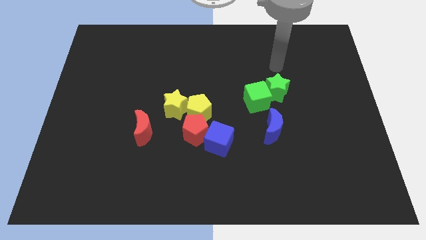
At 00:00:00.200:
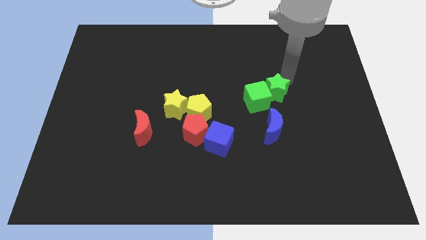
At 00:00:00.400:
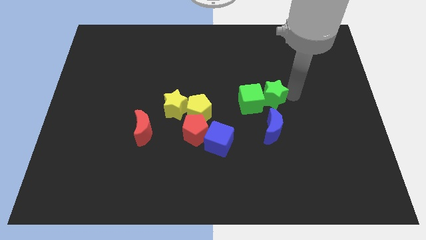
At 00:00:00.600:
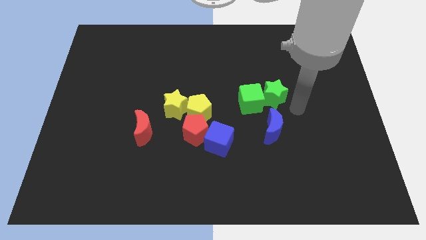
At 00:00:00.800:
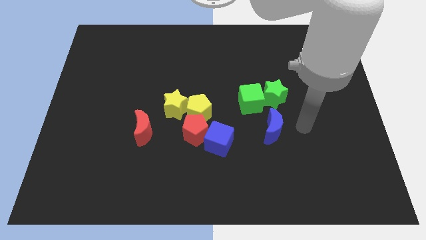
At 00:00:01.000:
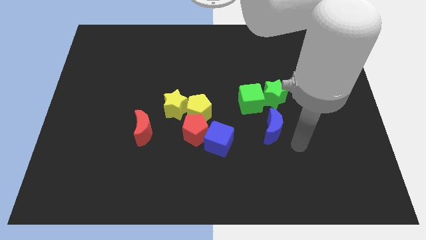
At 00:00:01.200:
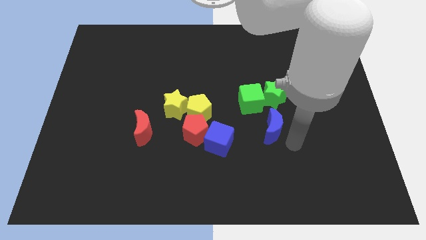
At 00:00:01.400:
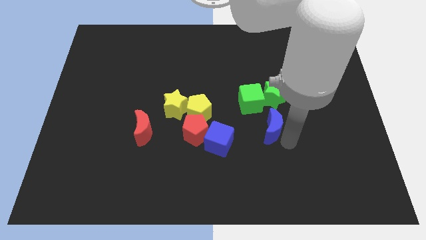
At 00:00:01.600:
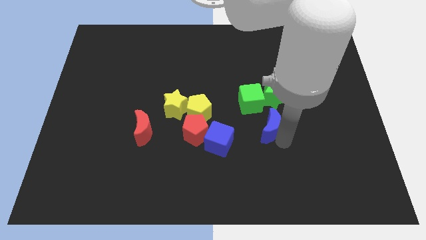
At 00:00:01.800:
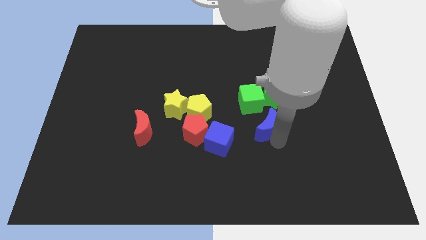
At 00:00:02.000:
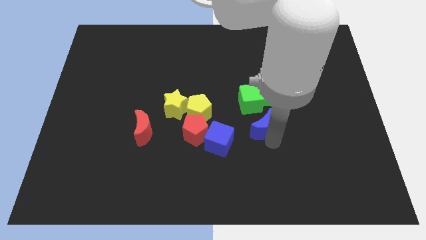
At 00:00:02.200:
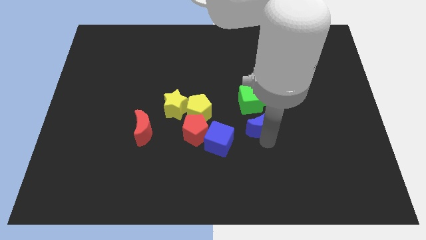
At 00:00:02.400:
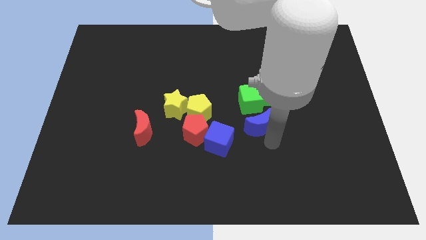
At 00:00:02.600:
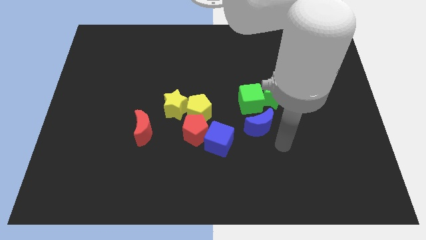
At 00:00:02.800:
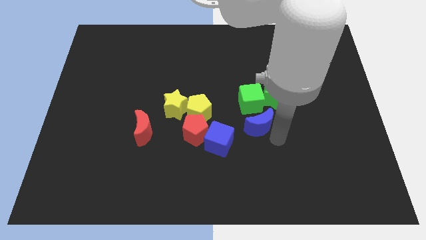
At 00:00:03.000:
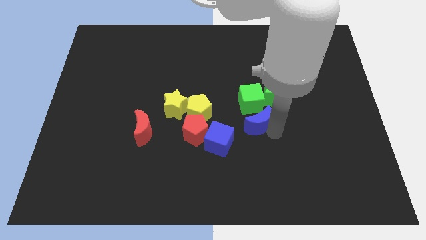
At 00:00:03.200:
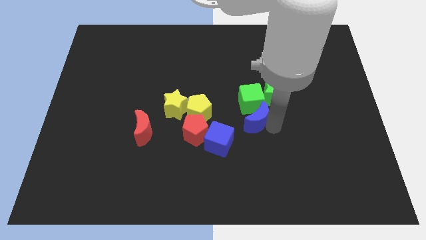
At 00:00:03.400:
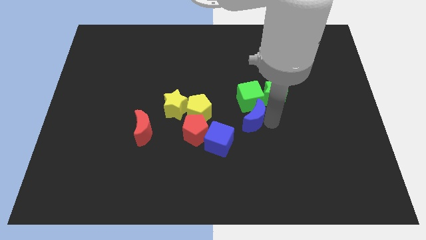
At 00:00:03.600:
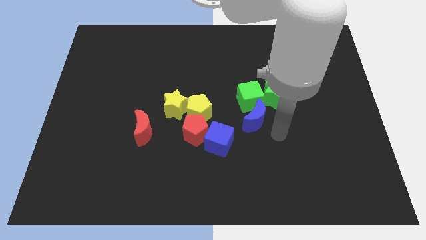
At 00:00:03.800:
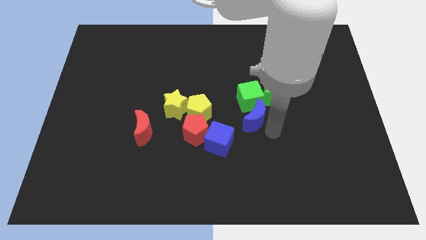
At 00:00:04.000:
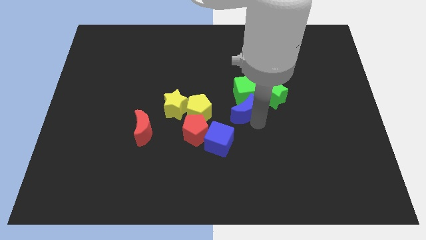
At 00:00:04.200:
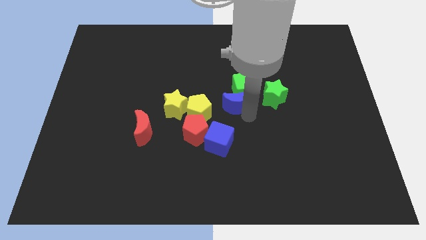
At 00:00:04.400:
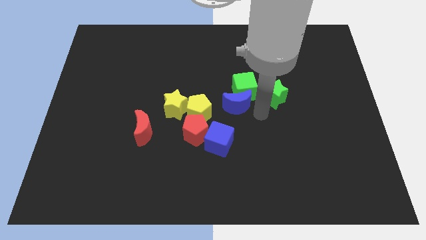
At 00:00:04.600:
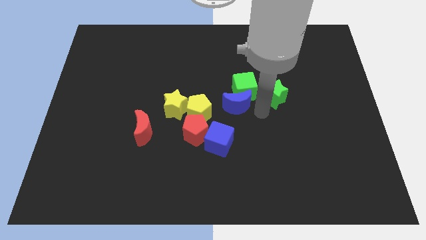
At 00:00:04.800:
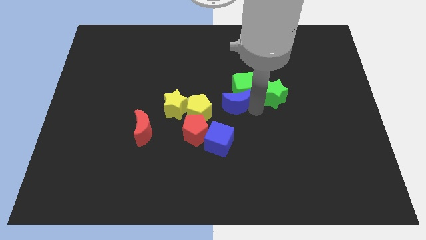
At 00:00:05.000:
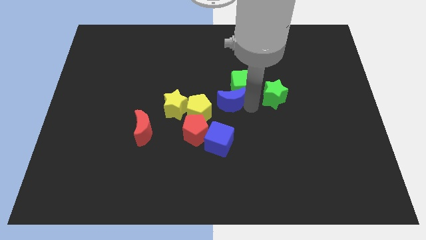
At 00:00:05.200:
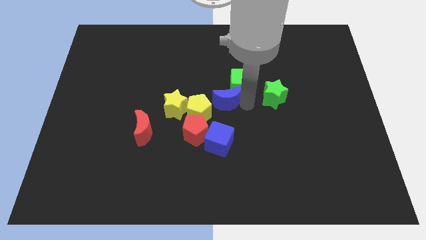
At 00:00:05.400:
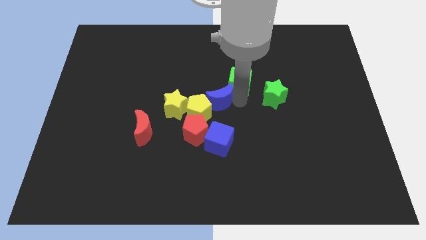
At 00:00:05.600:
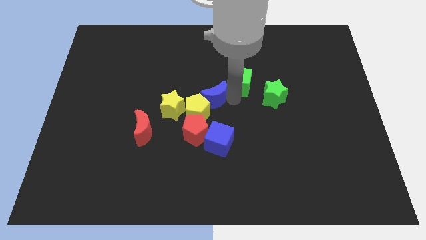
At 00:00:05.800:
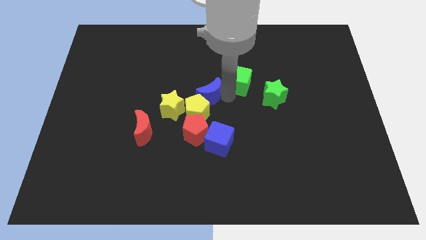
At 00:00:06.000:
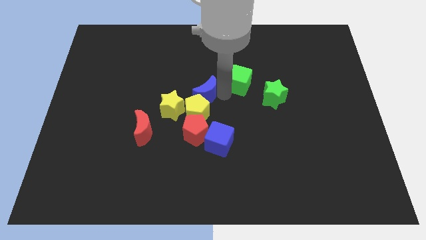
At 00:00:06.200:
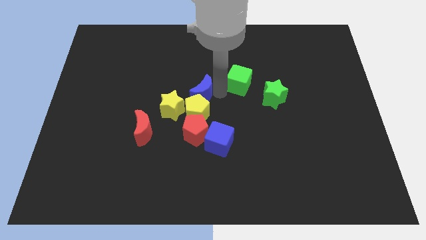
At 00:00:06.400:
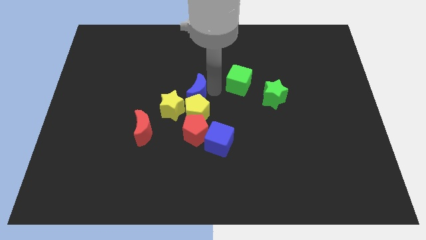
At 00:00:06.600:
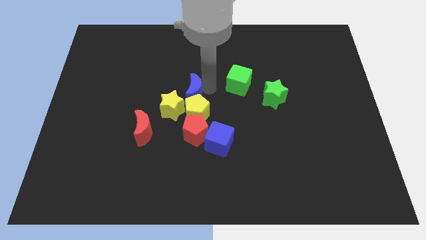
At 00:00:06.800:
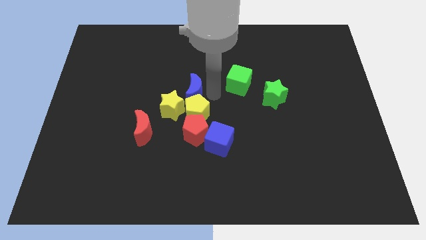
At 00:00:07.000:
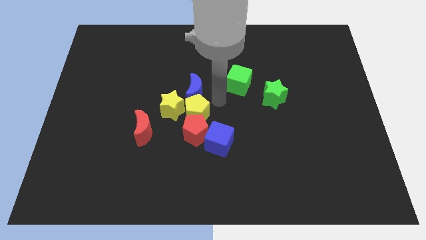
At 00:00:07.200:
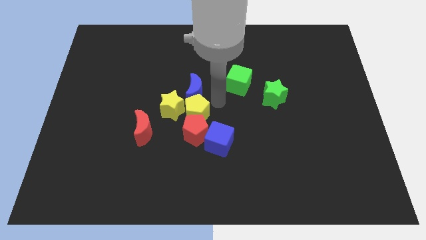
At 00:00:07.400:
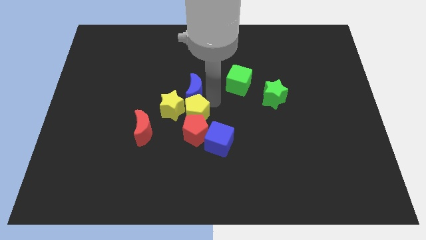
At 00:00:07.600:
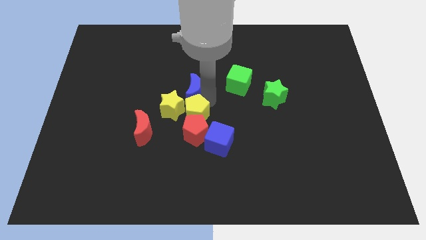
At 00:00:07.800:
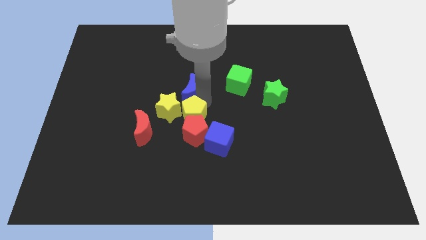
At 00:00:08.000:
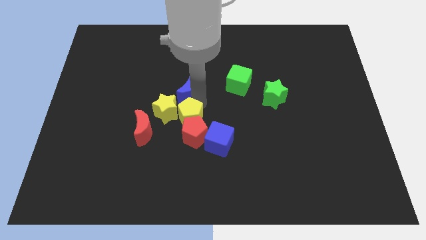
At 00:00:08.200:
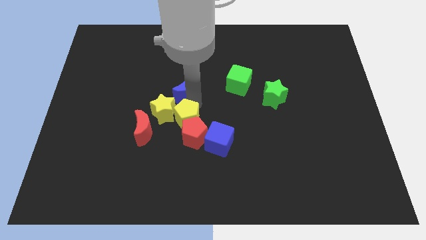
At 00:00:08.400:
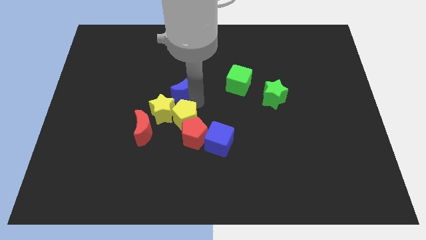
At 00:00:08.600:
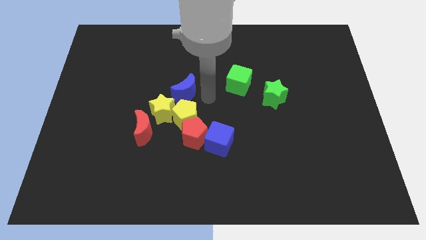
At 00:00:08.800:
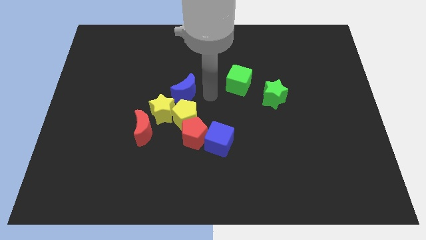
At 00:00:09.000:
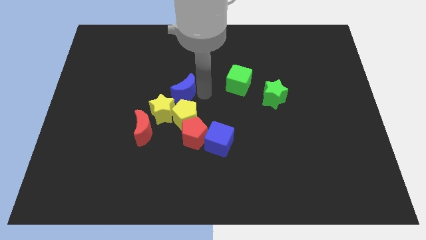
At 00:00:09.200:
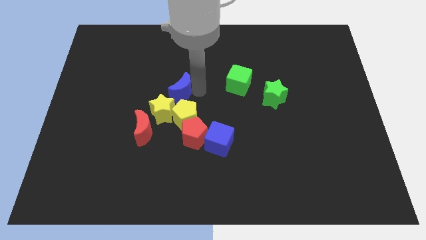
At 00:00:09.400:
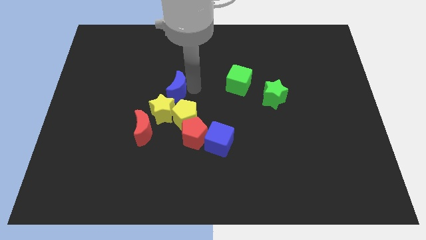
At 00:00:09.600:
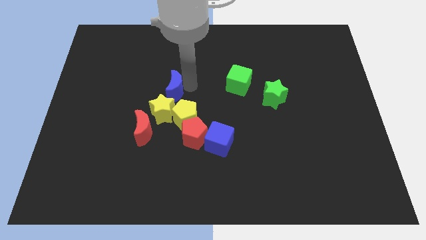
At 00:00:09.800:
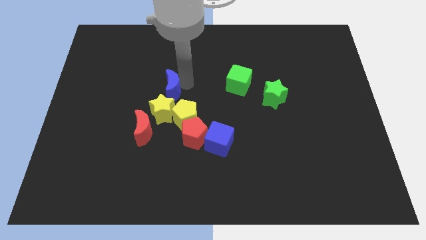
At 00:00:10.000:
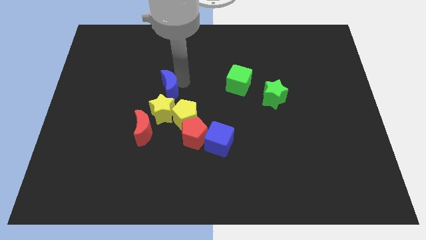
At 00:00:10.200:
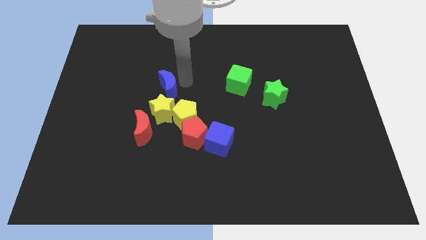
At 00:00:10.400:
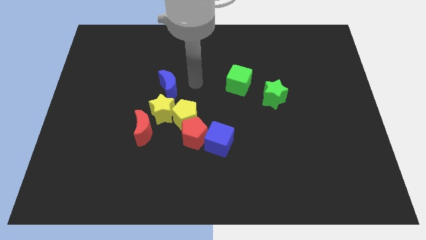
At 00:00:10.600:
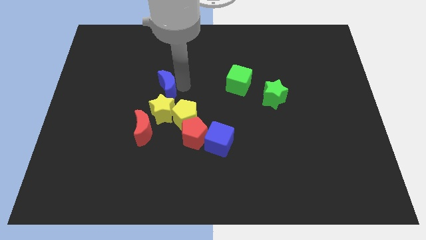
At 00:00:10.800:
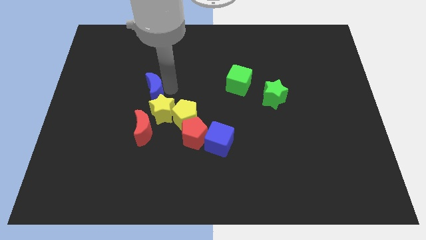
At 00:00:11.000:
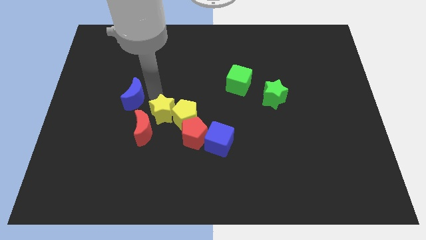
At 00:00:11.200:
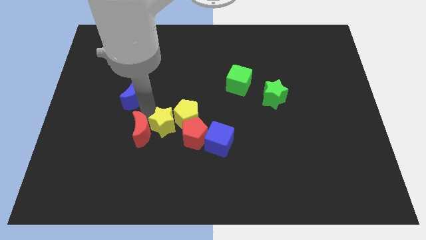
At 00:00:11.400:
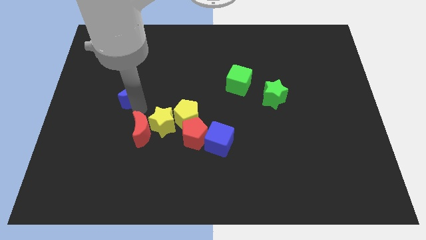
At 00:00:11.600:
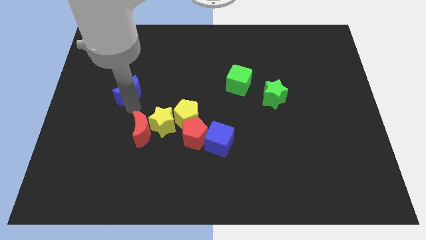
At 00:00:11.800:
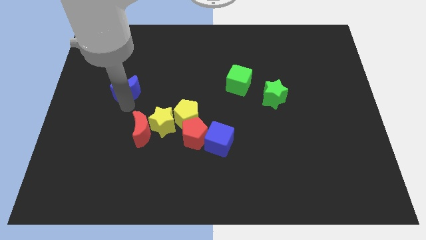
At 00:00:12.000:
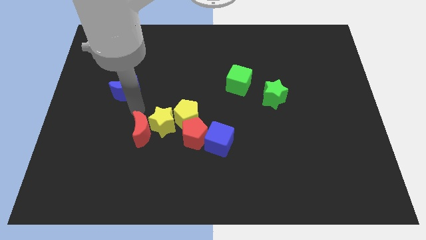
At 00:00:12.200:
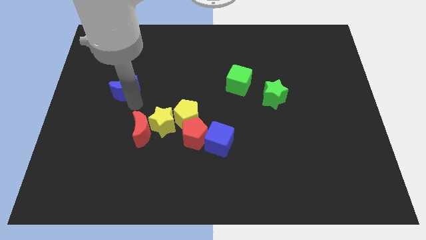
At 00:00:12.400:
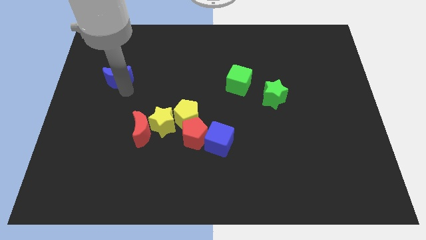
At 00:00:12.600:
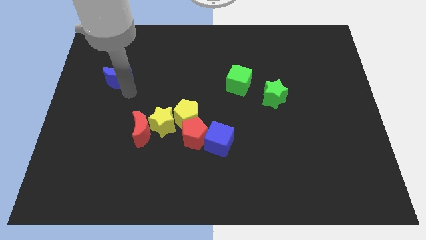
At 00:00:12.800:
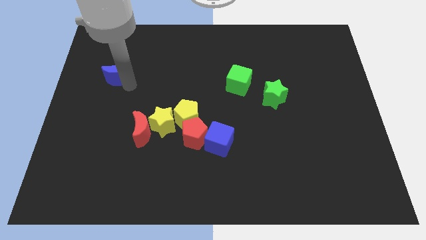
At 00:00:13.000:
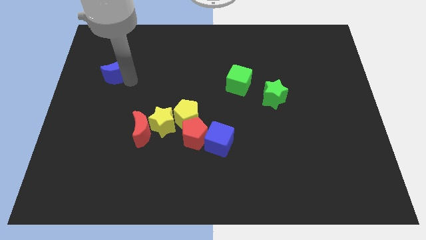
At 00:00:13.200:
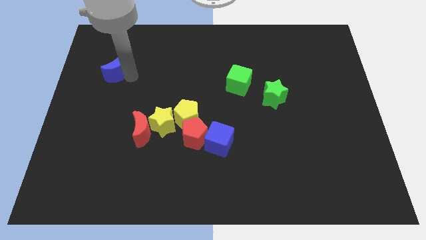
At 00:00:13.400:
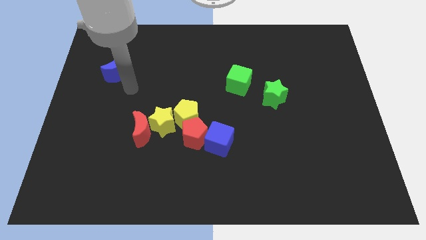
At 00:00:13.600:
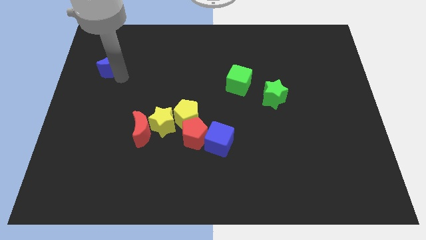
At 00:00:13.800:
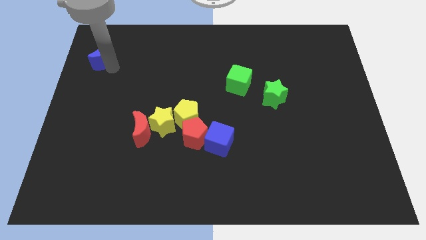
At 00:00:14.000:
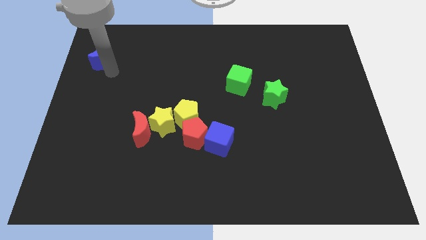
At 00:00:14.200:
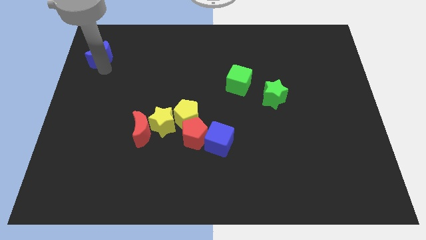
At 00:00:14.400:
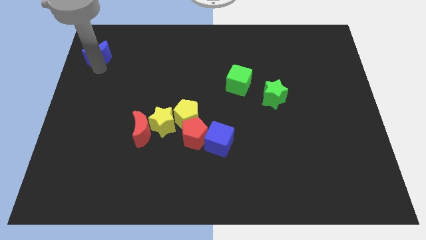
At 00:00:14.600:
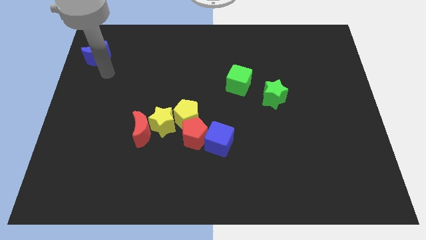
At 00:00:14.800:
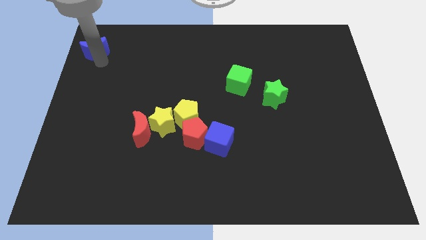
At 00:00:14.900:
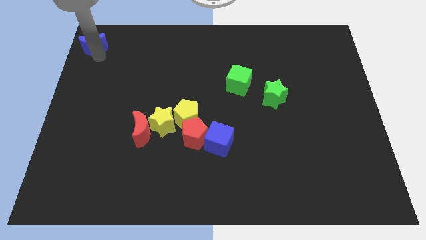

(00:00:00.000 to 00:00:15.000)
push the blue moon to the upper left corner
